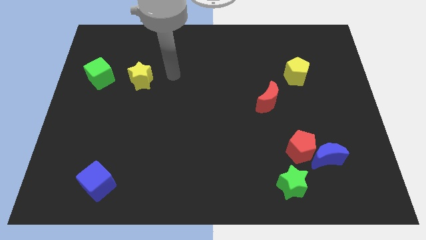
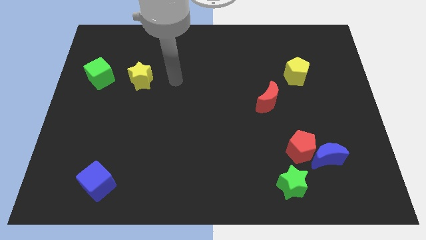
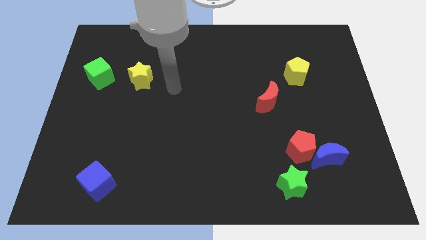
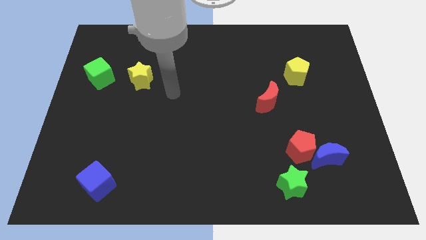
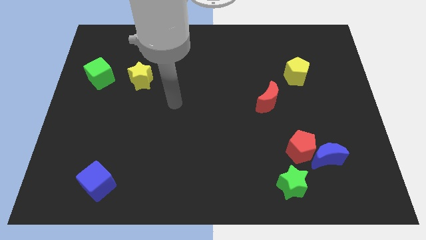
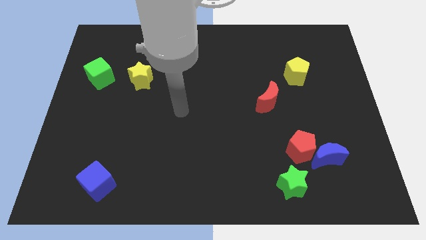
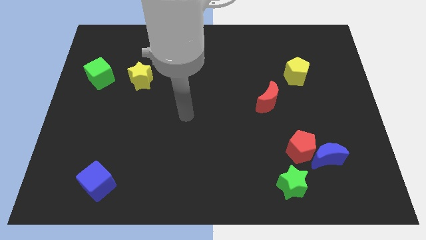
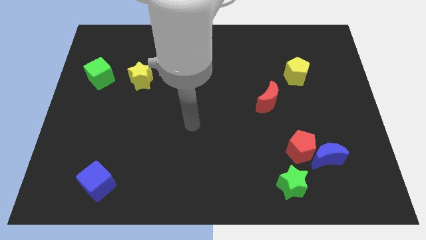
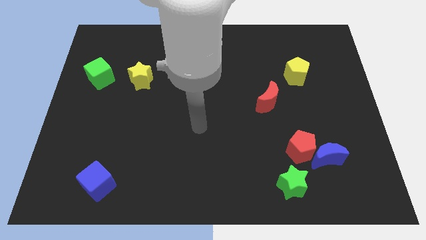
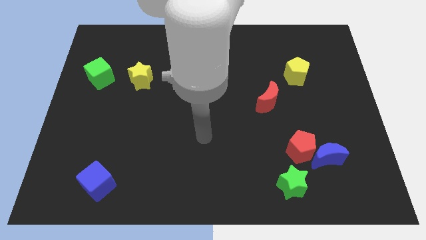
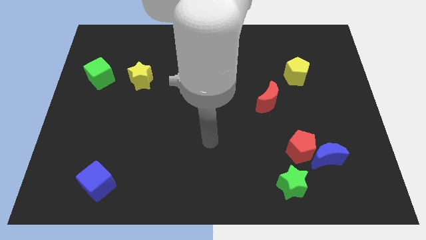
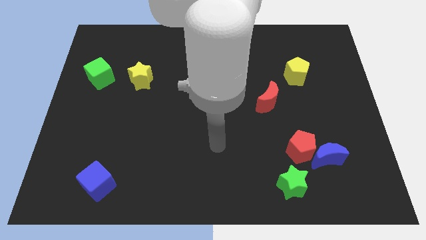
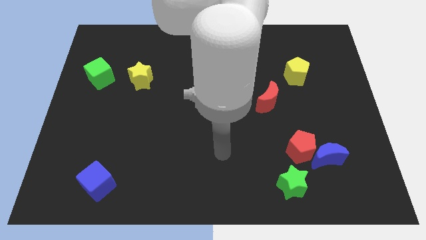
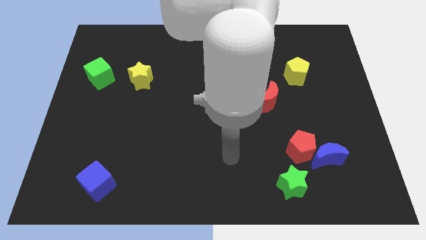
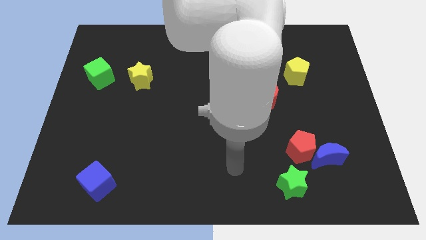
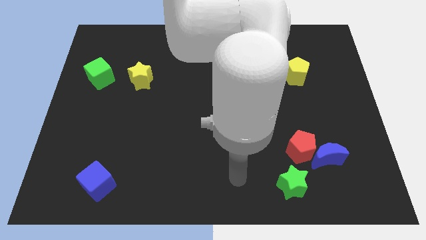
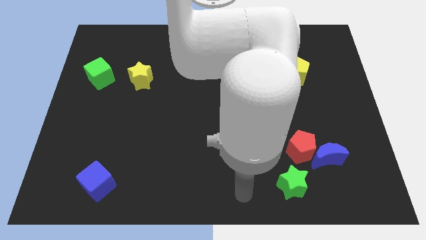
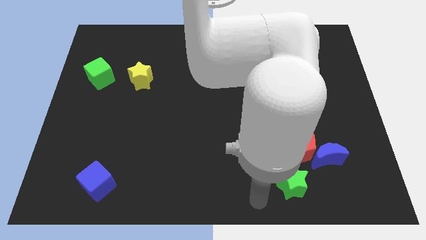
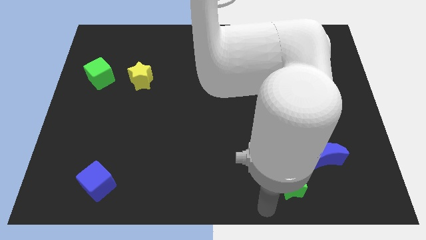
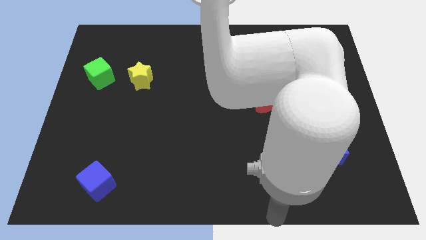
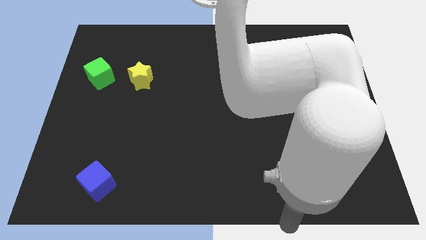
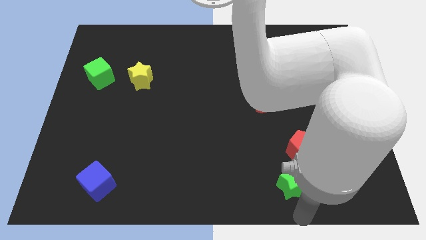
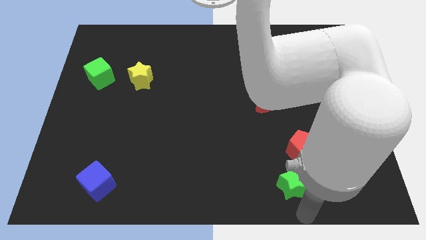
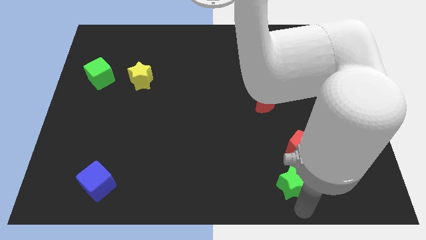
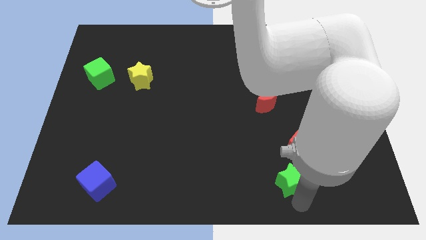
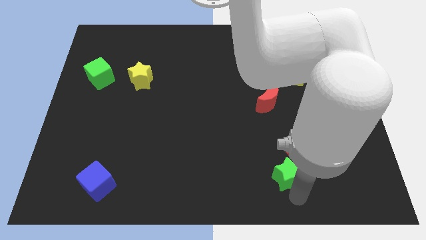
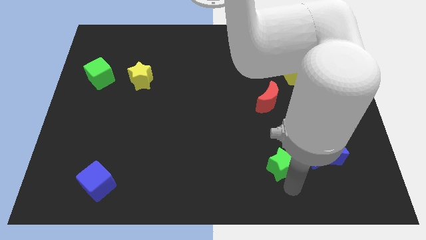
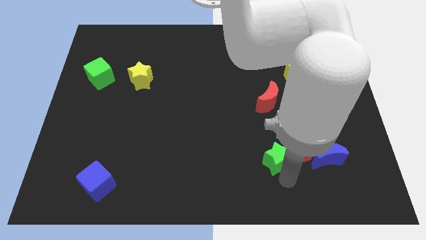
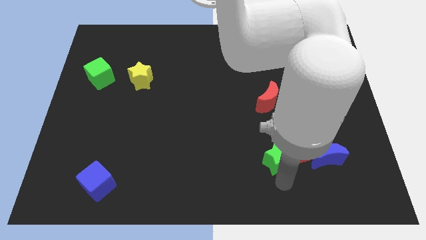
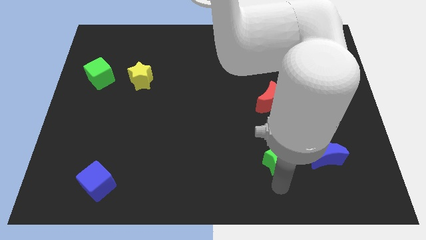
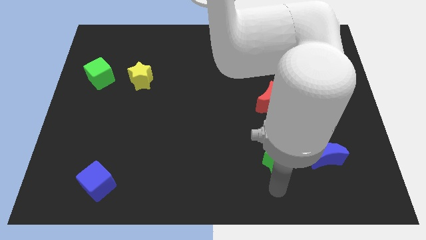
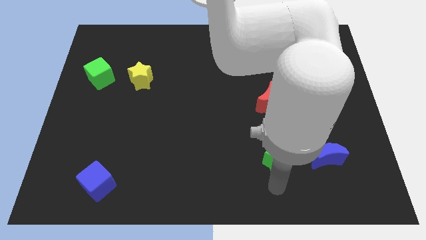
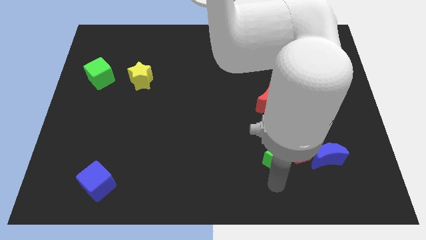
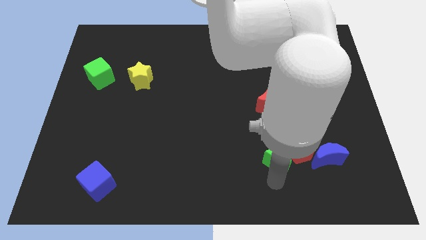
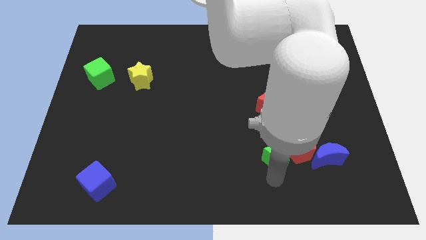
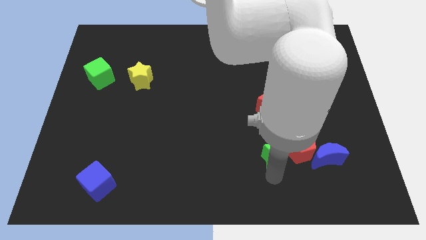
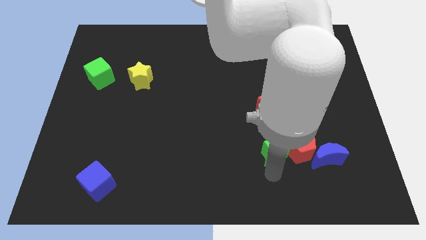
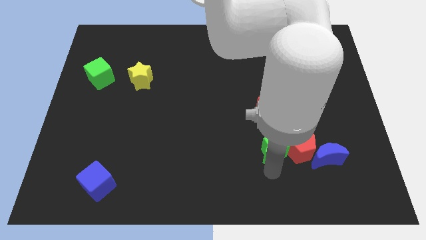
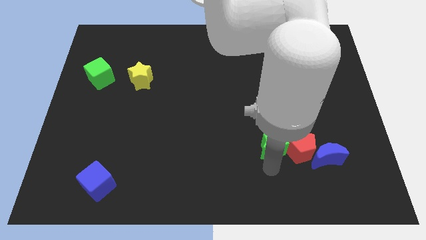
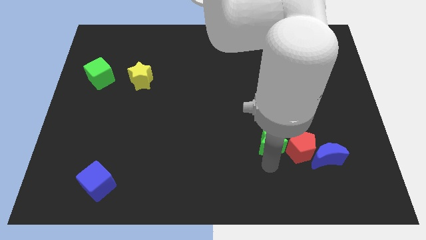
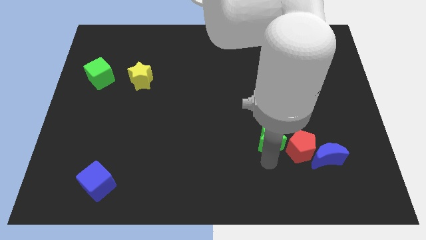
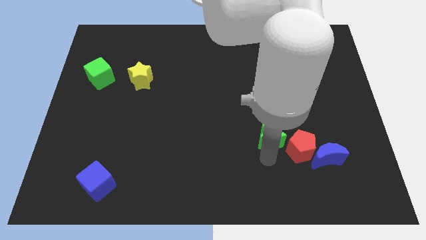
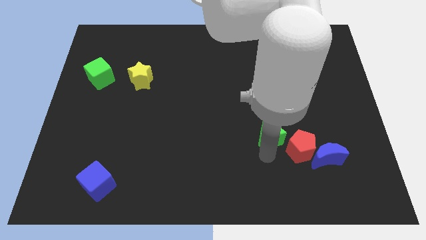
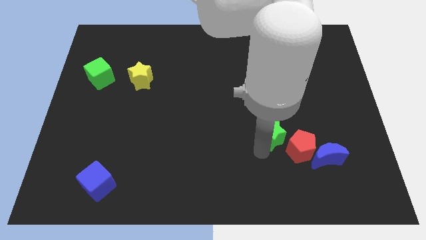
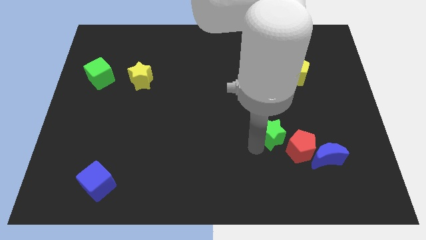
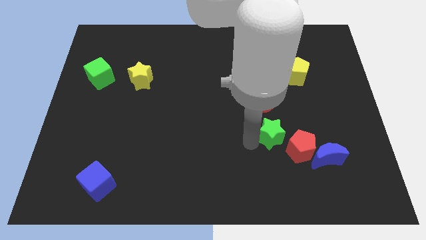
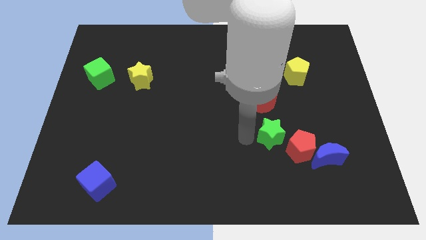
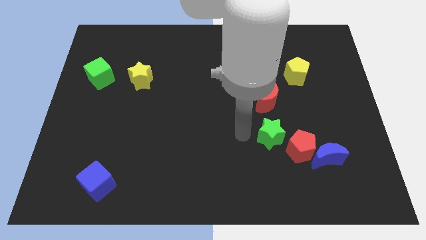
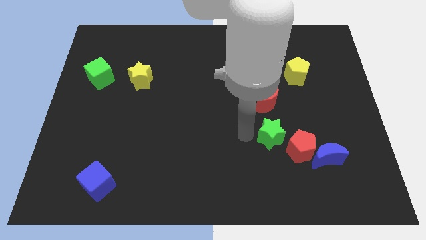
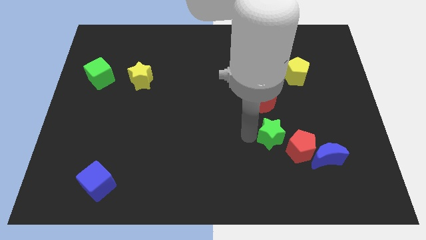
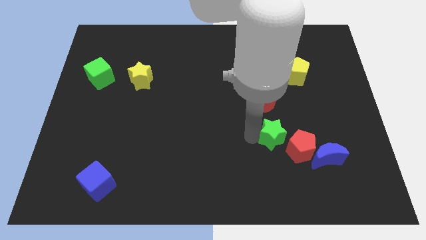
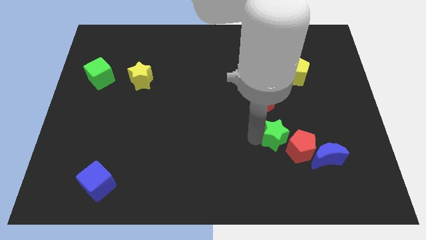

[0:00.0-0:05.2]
put the green star to the top left of the blue moon

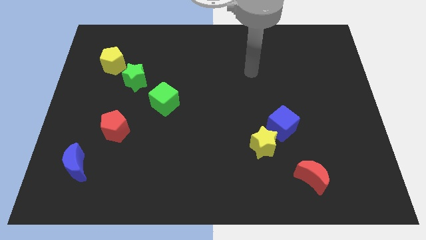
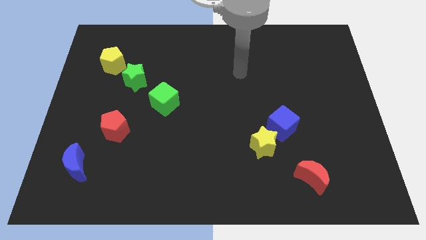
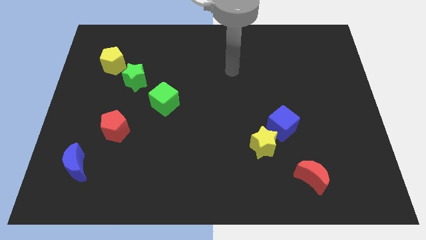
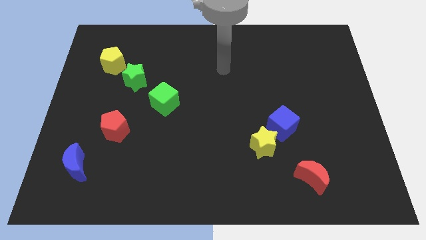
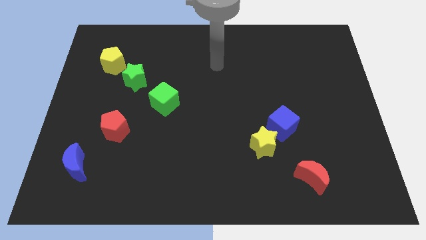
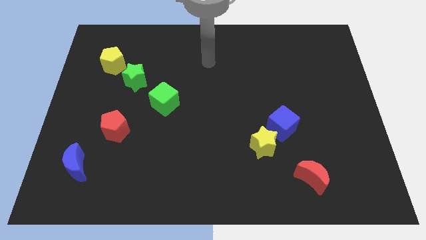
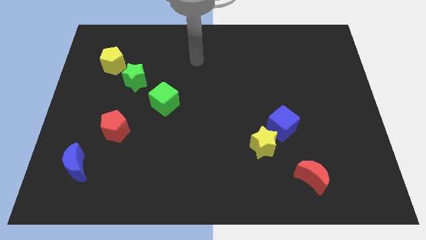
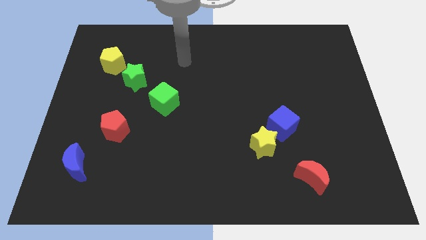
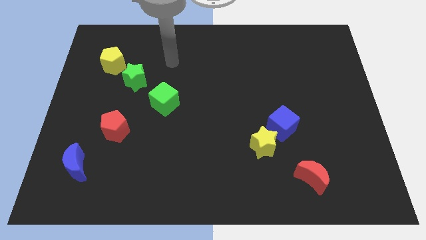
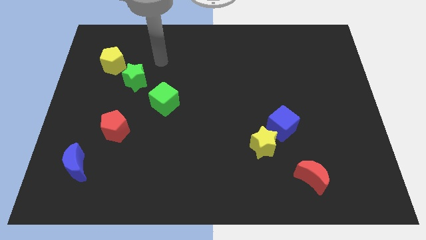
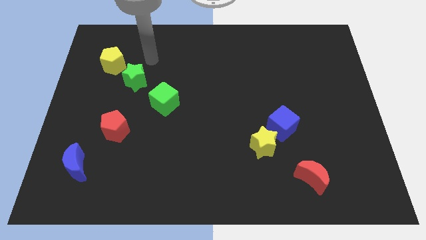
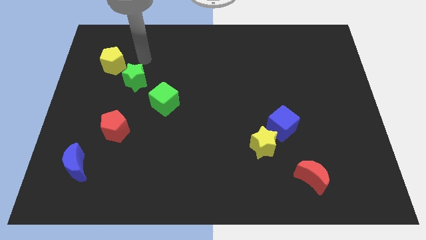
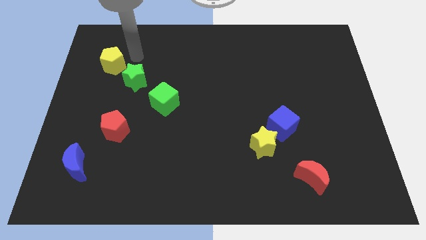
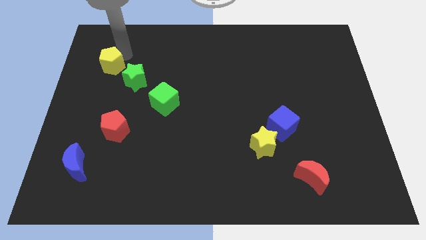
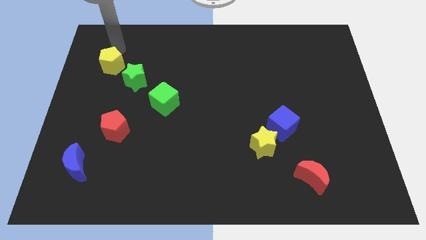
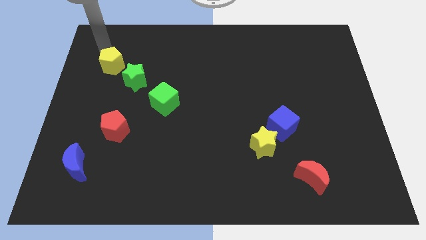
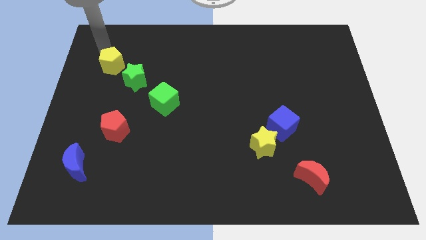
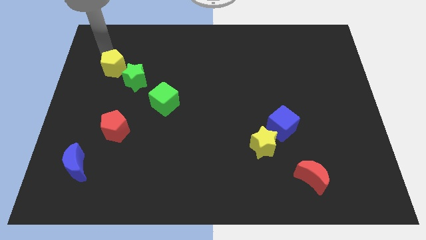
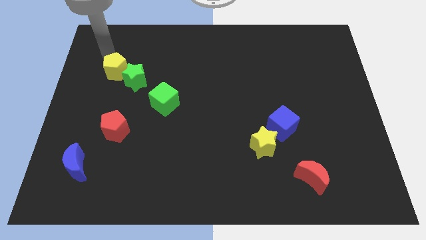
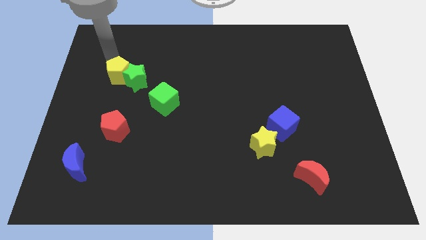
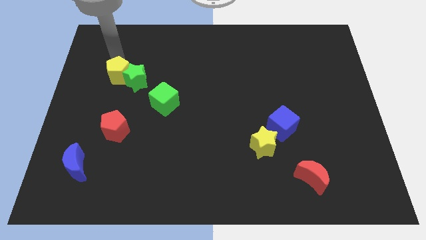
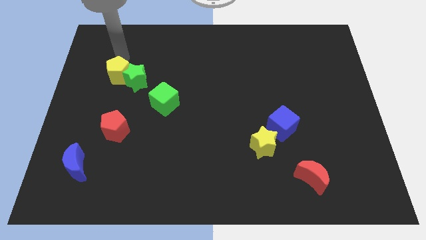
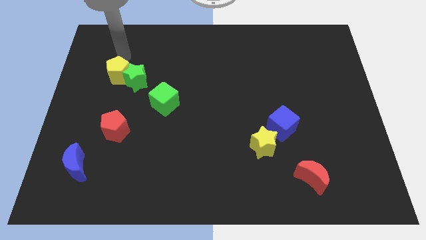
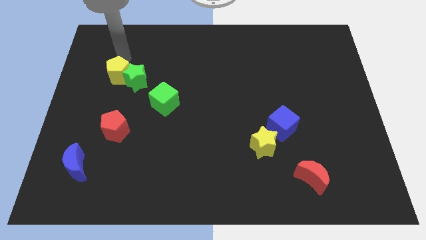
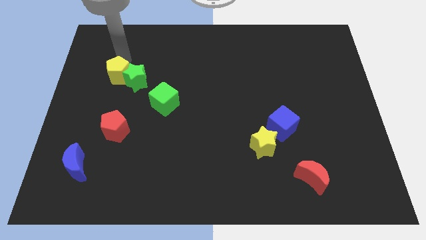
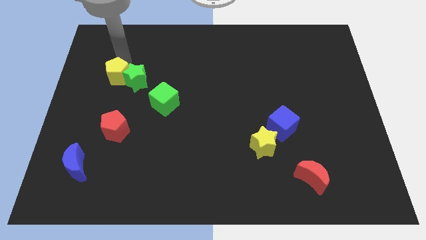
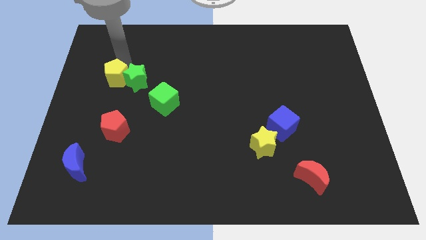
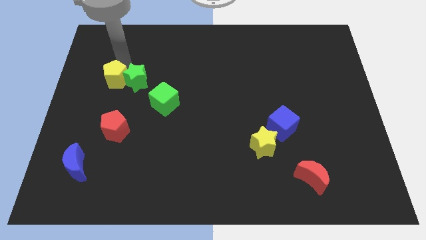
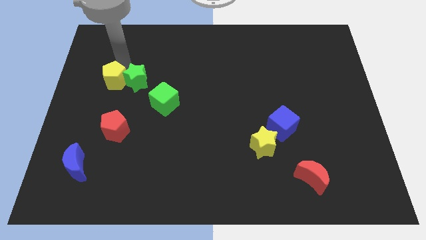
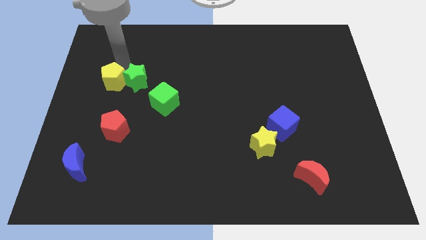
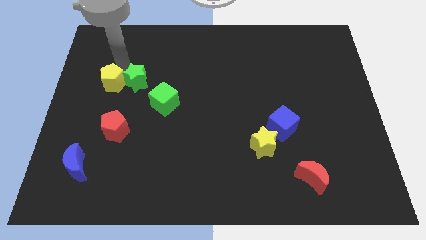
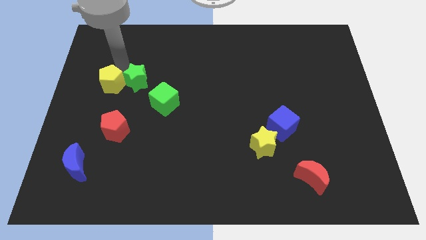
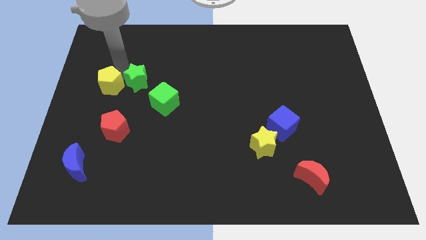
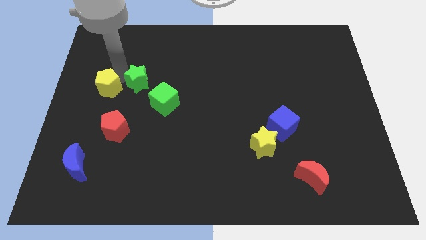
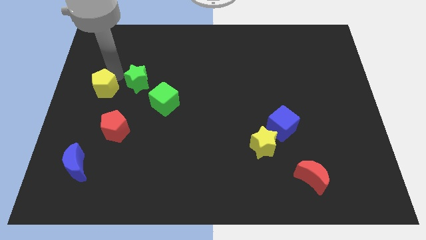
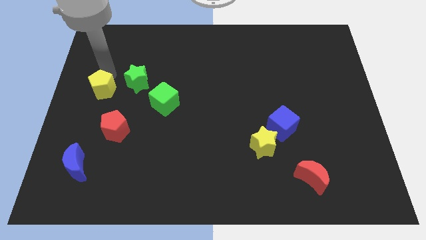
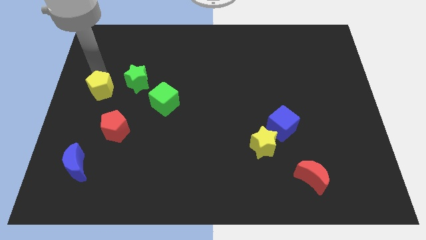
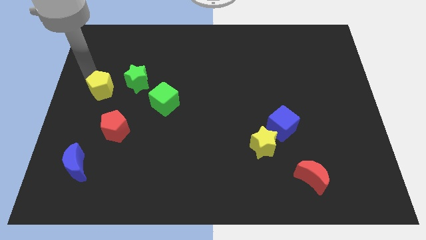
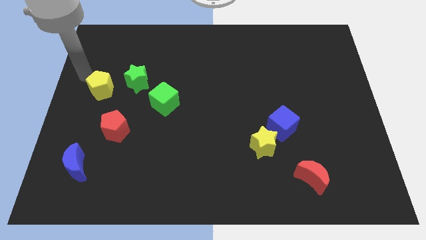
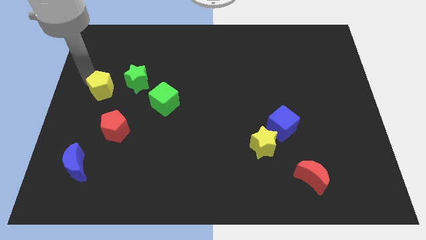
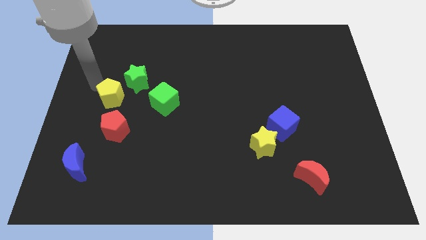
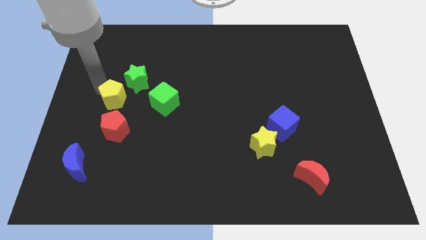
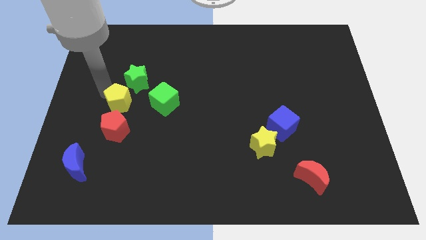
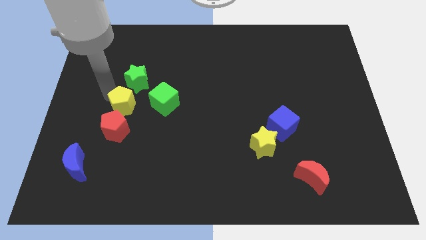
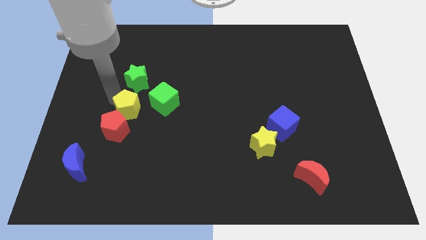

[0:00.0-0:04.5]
put the yellow pentagon diagonally down and to the left of the green cube
